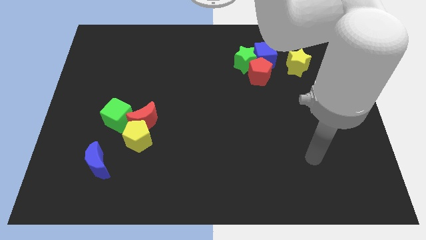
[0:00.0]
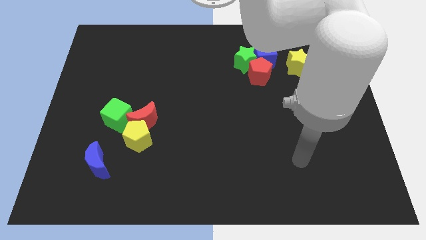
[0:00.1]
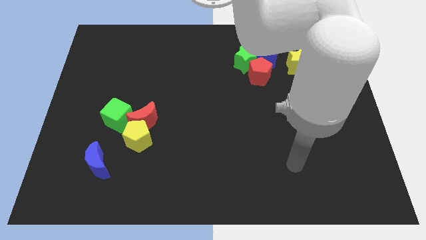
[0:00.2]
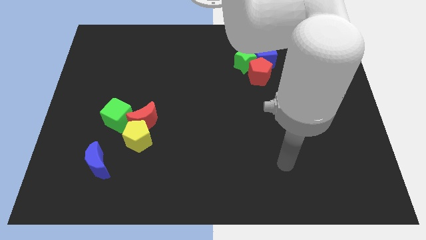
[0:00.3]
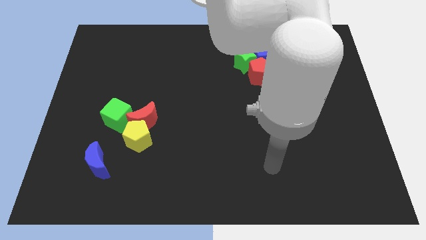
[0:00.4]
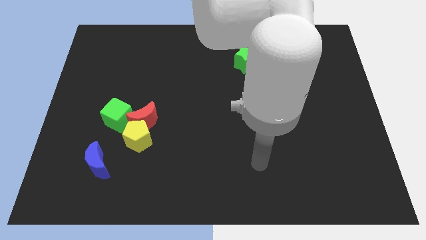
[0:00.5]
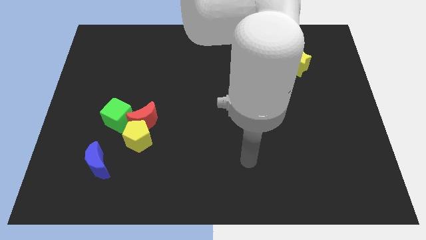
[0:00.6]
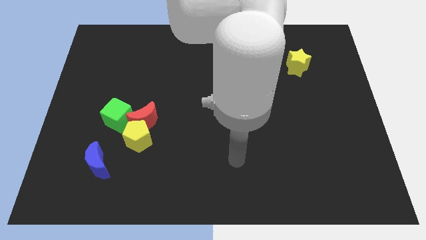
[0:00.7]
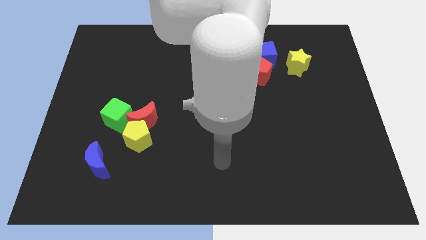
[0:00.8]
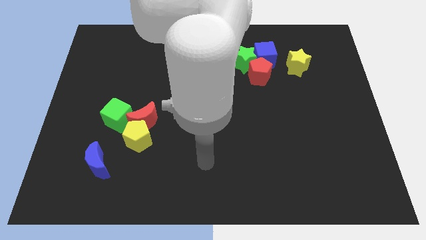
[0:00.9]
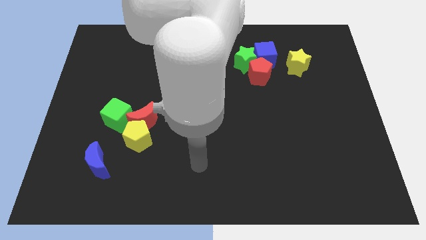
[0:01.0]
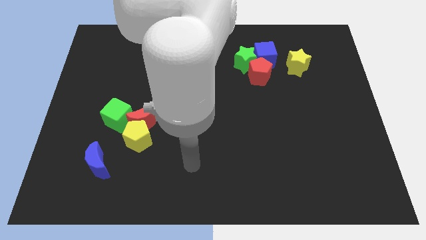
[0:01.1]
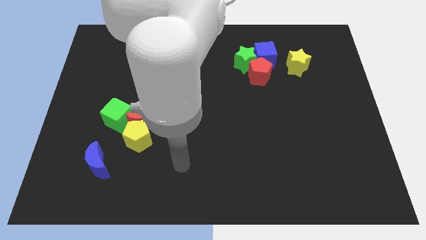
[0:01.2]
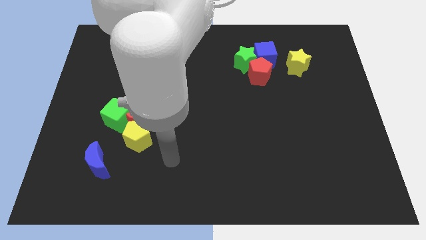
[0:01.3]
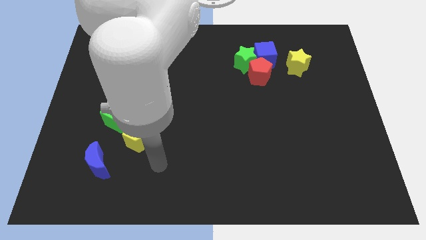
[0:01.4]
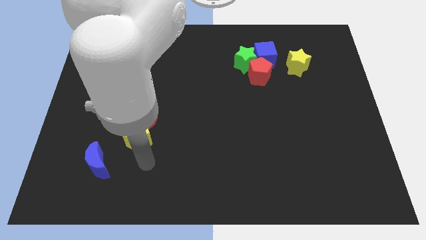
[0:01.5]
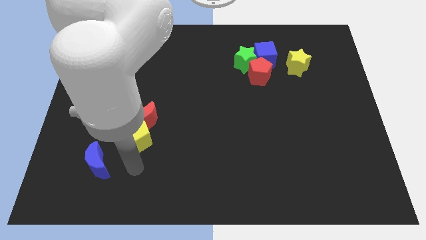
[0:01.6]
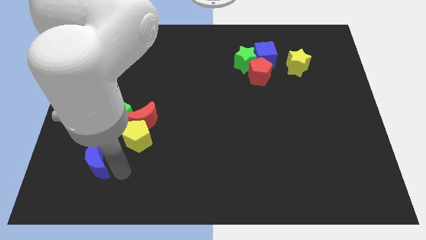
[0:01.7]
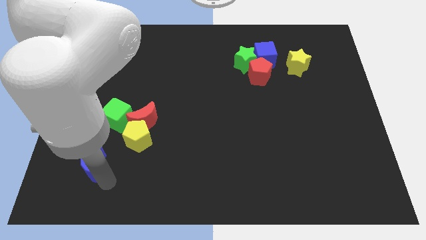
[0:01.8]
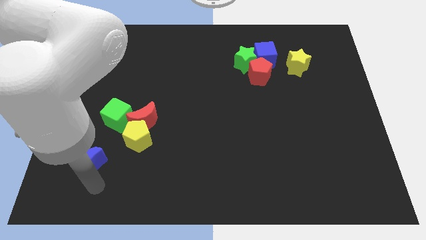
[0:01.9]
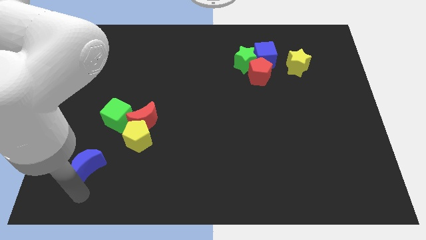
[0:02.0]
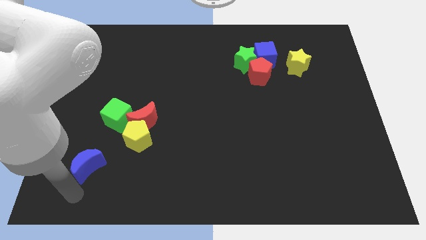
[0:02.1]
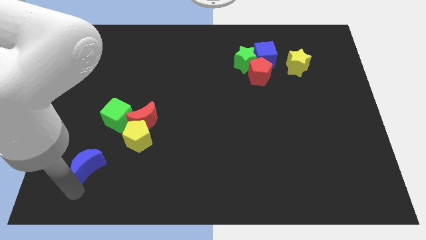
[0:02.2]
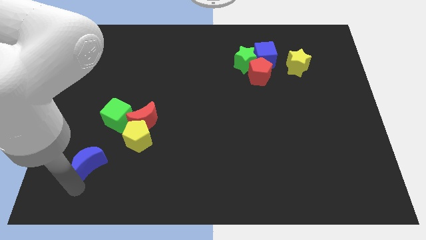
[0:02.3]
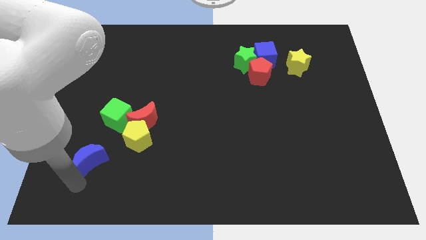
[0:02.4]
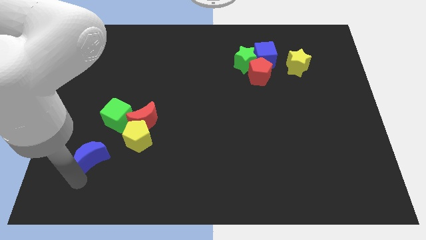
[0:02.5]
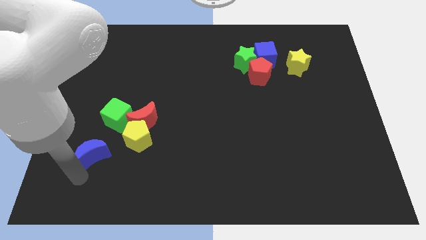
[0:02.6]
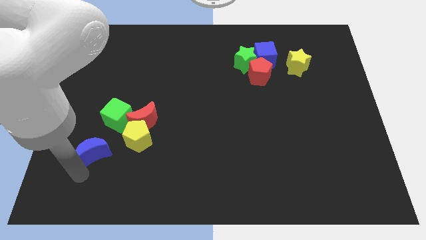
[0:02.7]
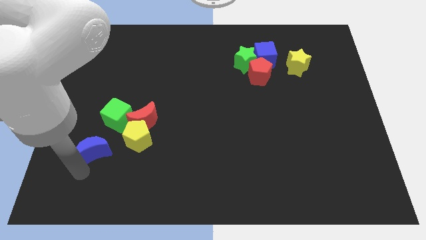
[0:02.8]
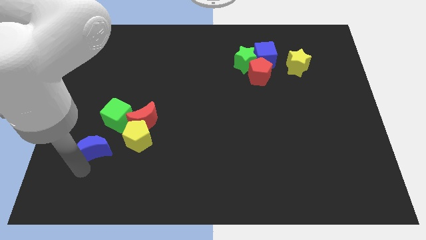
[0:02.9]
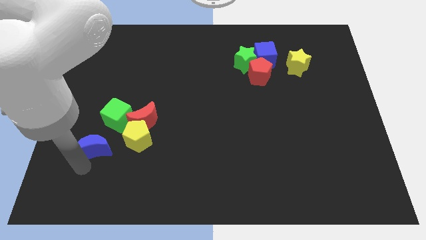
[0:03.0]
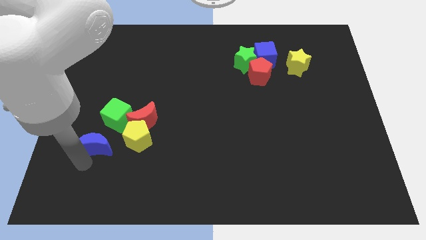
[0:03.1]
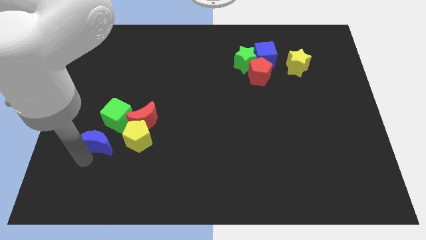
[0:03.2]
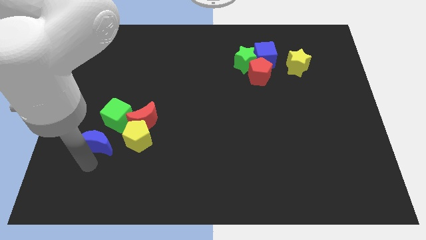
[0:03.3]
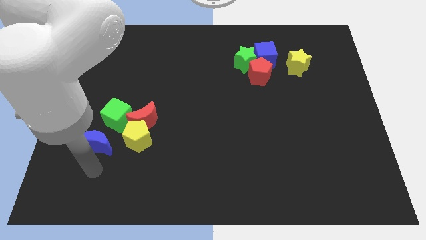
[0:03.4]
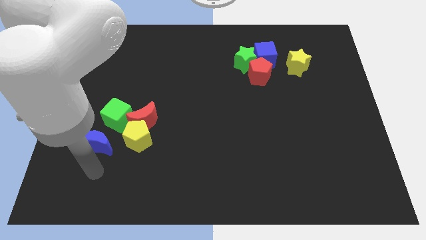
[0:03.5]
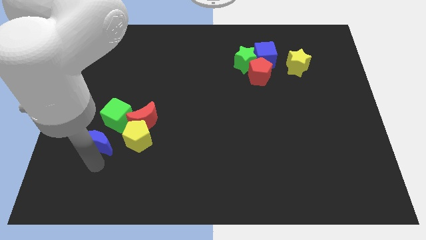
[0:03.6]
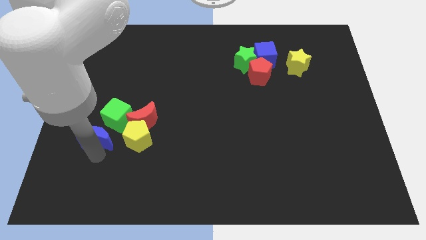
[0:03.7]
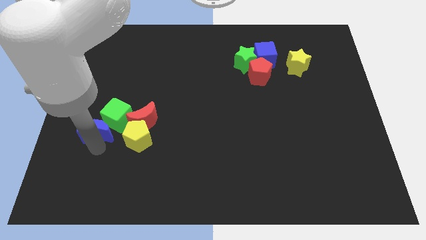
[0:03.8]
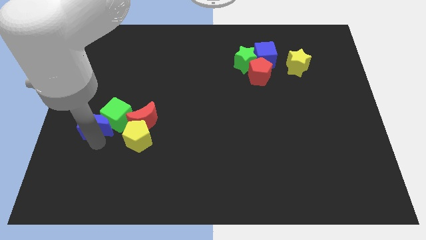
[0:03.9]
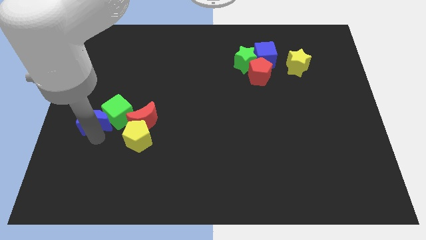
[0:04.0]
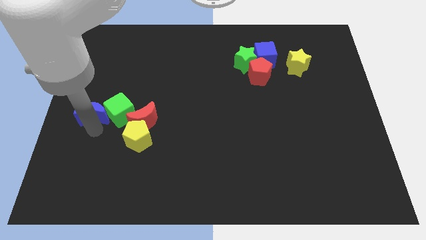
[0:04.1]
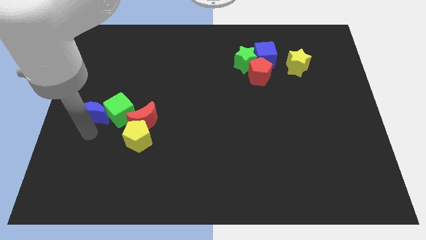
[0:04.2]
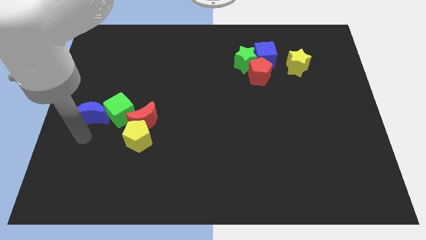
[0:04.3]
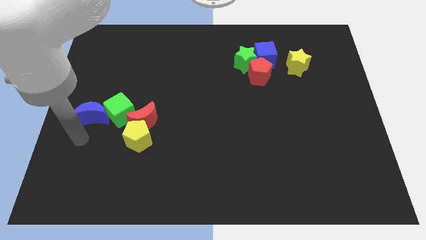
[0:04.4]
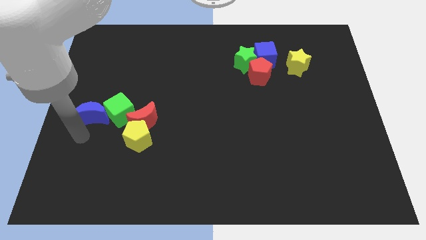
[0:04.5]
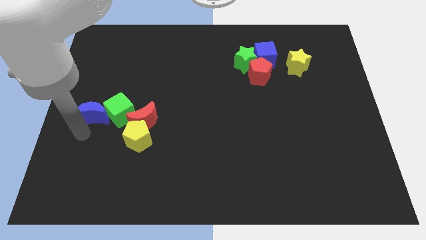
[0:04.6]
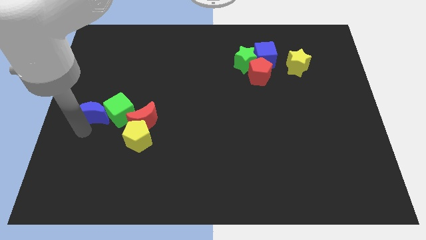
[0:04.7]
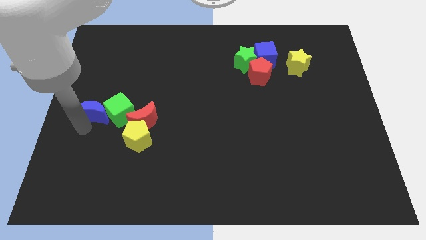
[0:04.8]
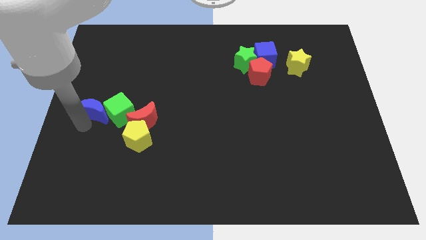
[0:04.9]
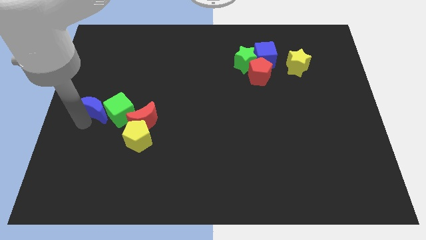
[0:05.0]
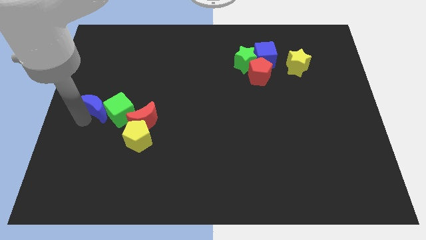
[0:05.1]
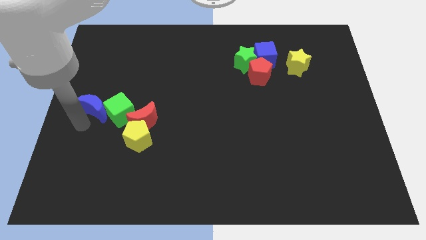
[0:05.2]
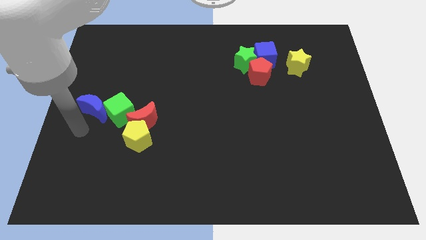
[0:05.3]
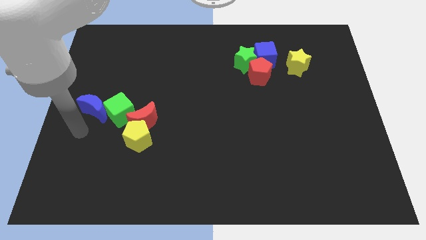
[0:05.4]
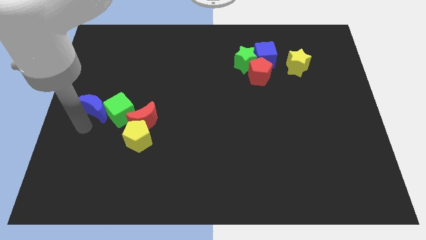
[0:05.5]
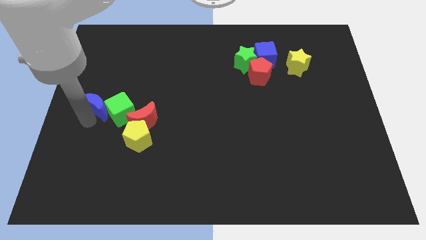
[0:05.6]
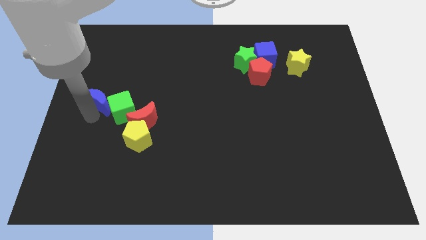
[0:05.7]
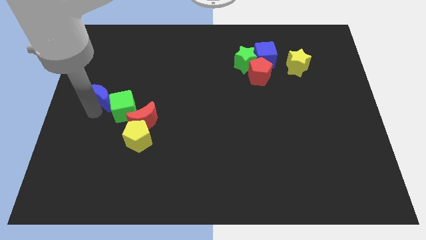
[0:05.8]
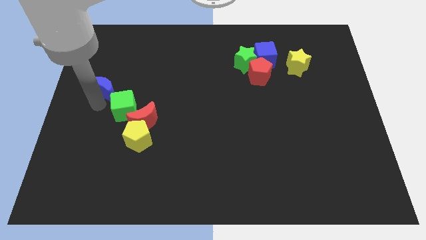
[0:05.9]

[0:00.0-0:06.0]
move the blue moon upwards

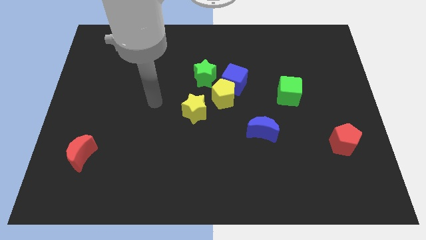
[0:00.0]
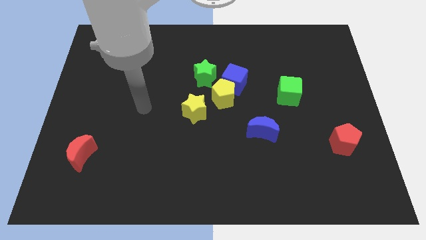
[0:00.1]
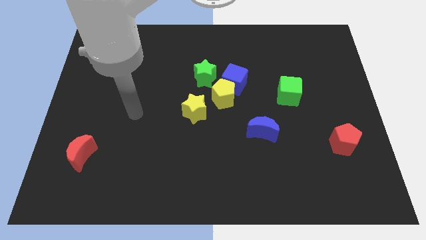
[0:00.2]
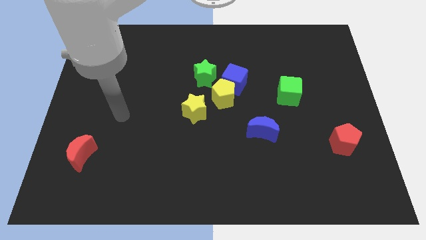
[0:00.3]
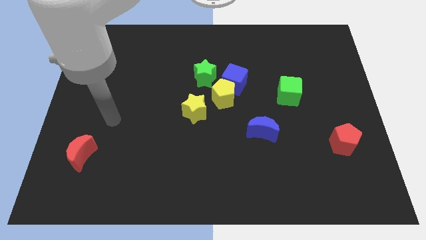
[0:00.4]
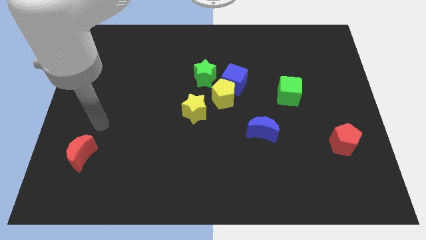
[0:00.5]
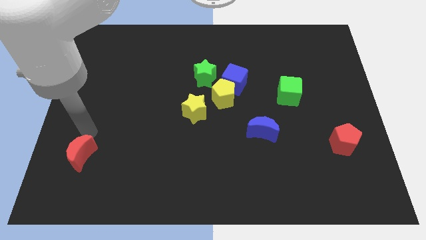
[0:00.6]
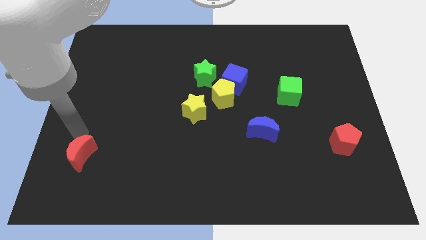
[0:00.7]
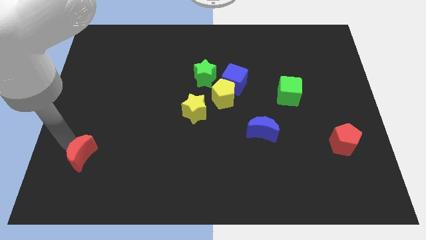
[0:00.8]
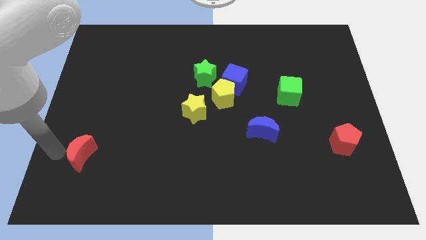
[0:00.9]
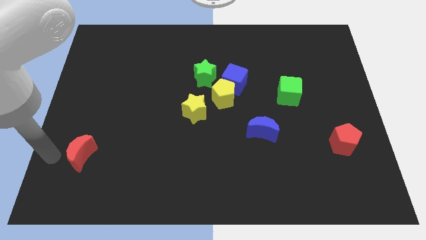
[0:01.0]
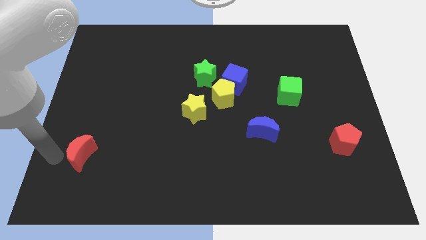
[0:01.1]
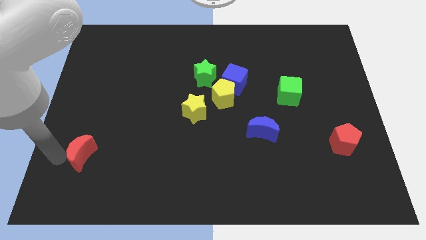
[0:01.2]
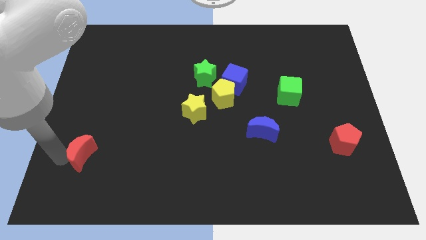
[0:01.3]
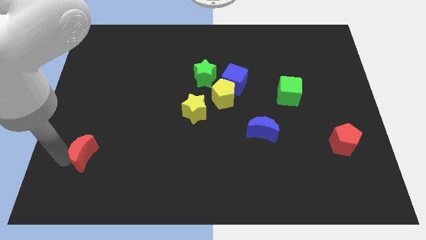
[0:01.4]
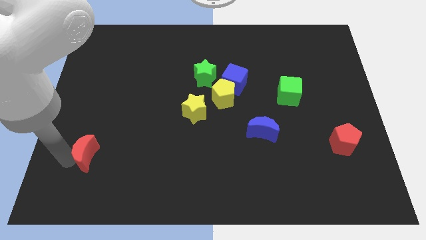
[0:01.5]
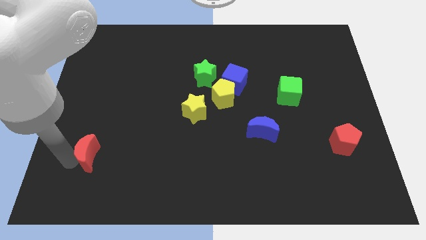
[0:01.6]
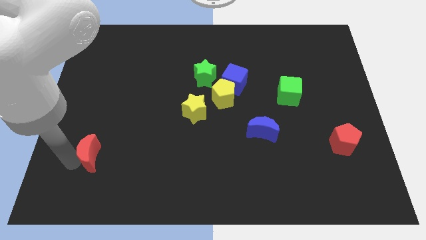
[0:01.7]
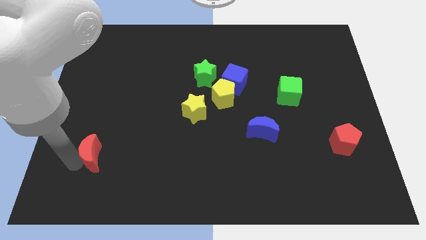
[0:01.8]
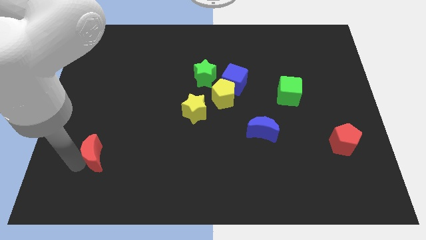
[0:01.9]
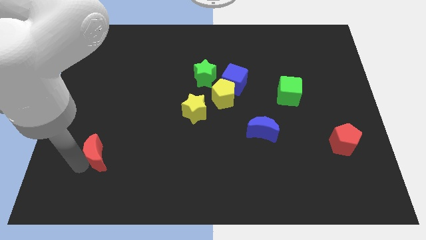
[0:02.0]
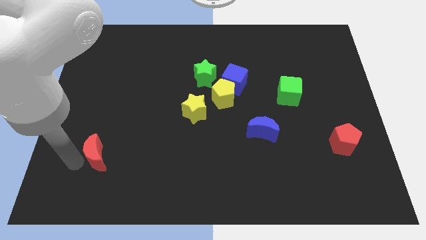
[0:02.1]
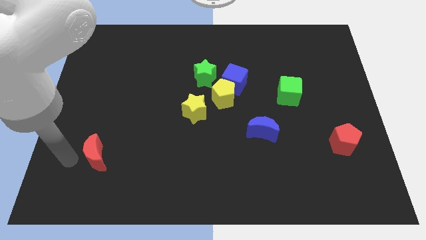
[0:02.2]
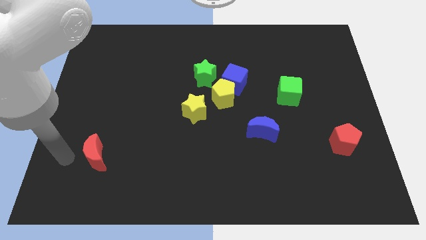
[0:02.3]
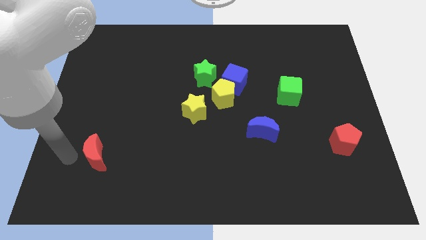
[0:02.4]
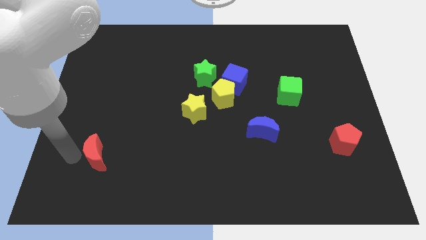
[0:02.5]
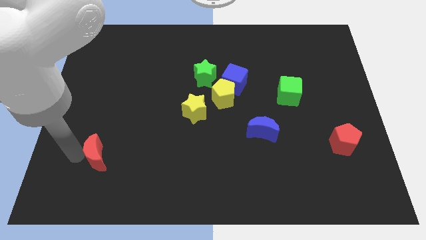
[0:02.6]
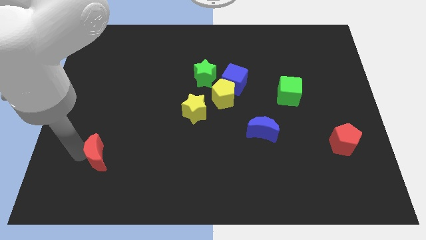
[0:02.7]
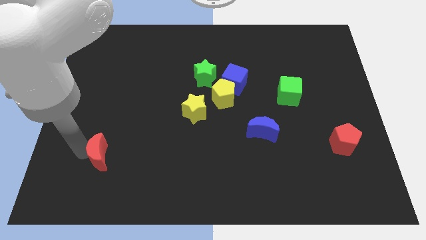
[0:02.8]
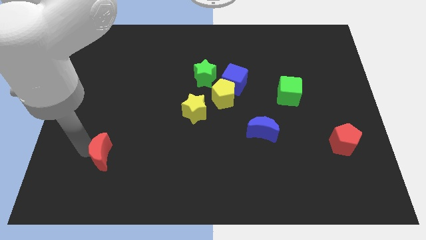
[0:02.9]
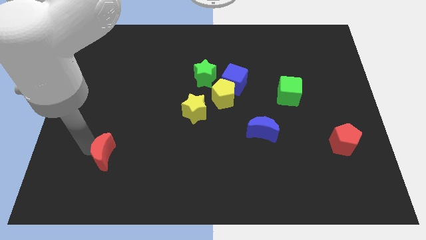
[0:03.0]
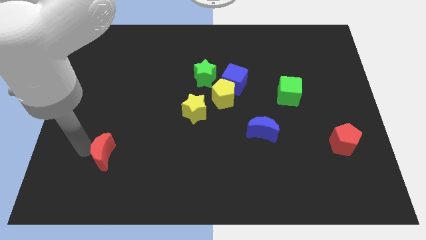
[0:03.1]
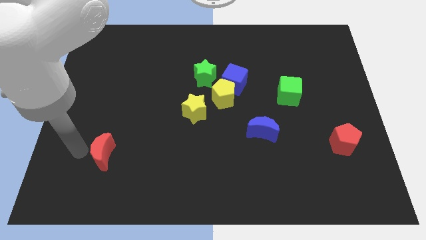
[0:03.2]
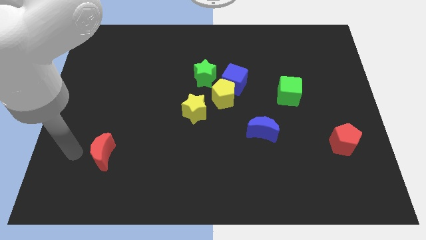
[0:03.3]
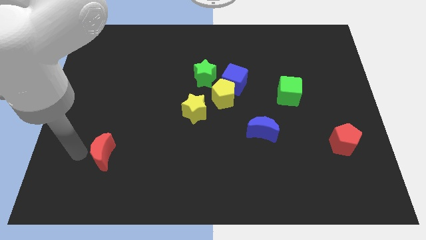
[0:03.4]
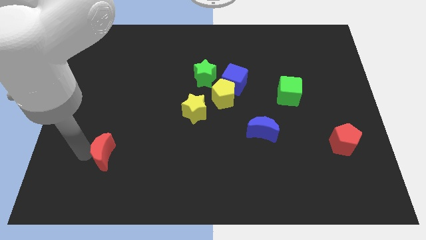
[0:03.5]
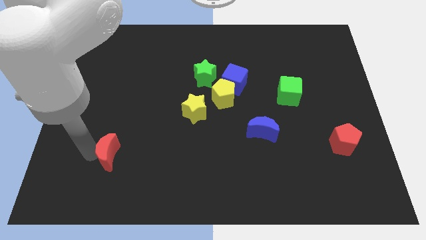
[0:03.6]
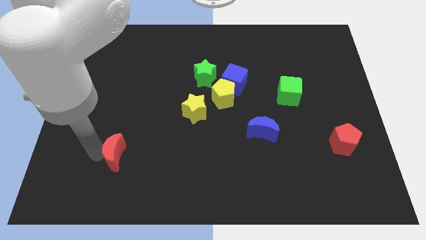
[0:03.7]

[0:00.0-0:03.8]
slightly move the red moon right
